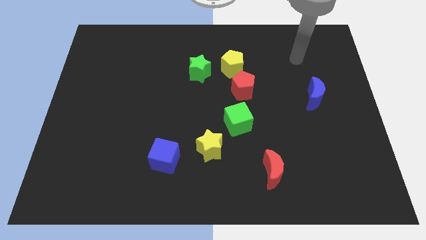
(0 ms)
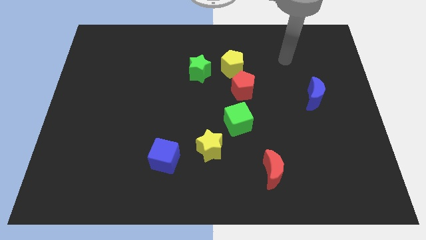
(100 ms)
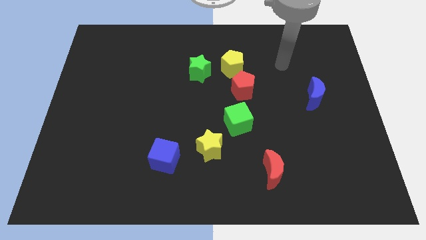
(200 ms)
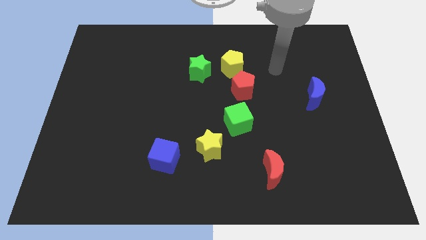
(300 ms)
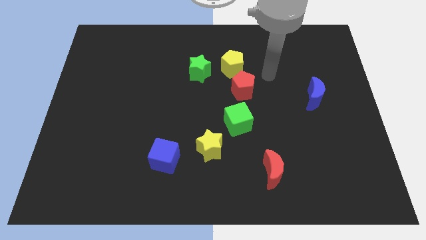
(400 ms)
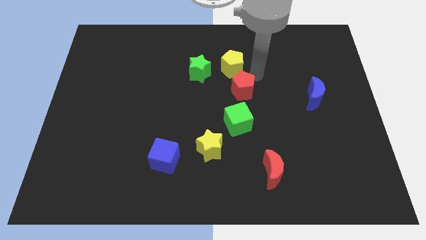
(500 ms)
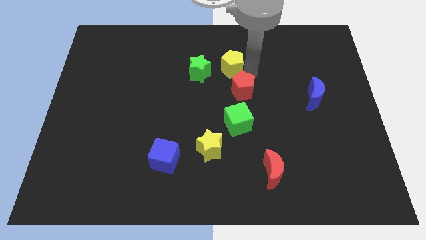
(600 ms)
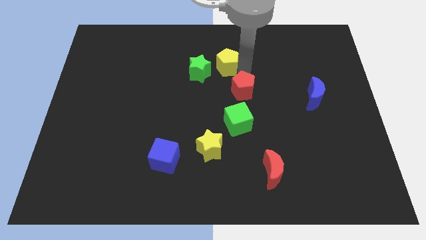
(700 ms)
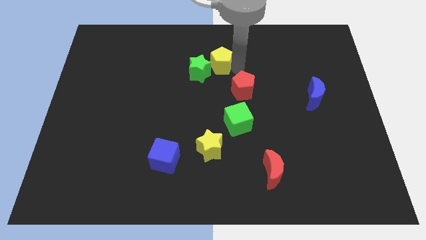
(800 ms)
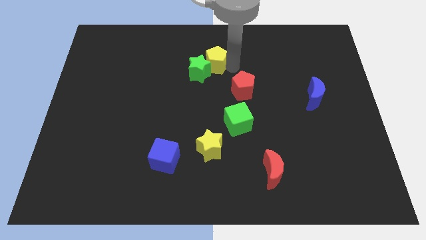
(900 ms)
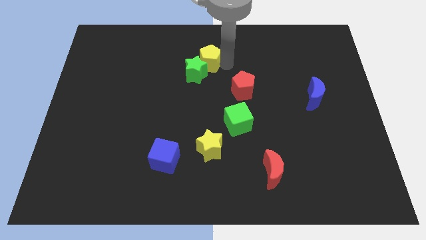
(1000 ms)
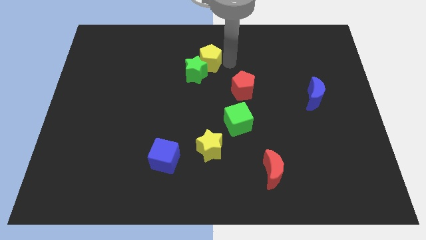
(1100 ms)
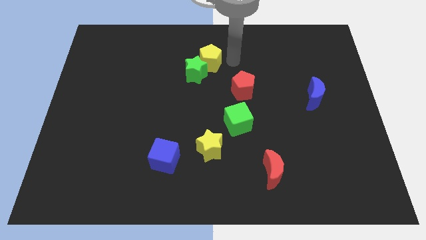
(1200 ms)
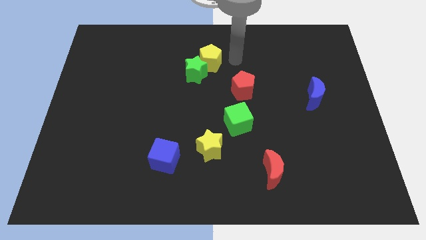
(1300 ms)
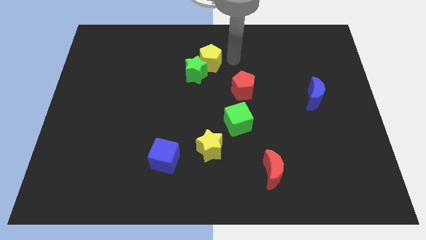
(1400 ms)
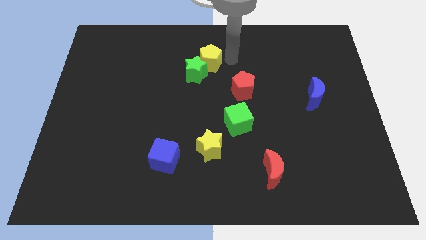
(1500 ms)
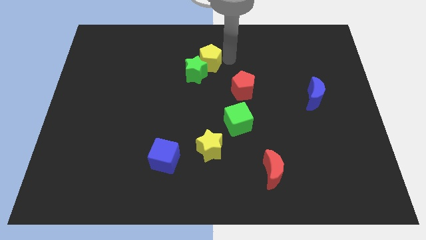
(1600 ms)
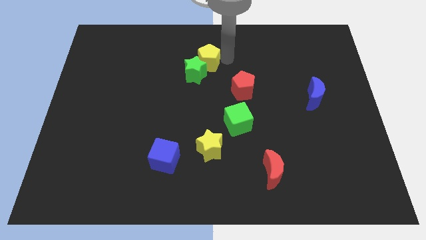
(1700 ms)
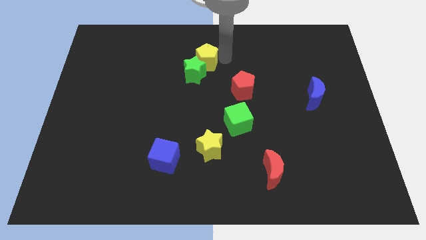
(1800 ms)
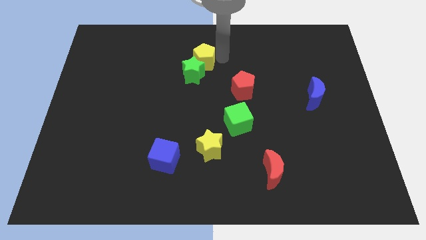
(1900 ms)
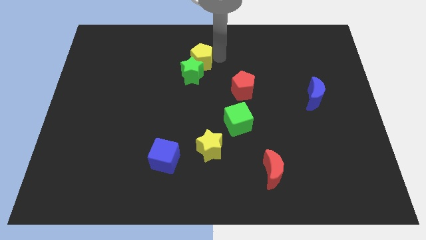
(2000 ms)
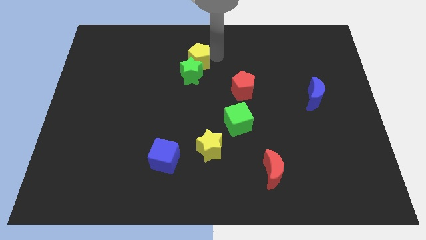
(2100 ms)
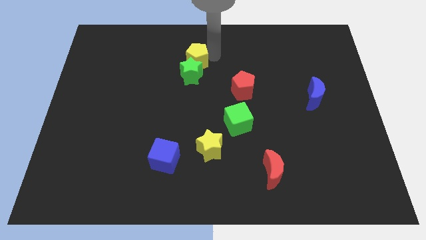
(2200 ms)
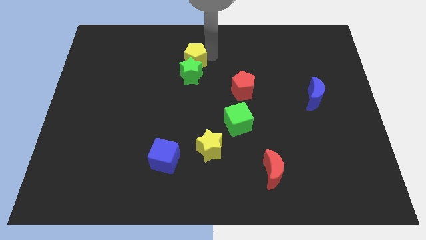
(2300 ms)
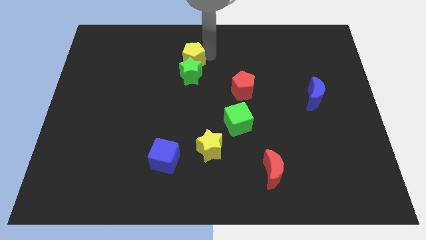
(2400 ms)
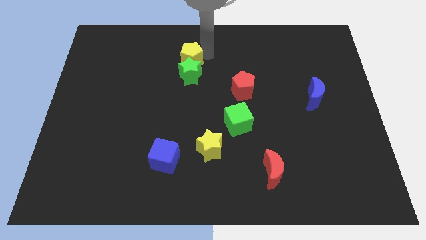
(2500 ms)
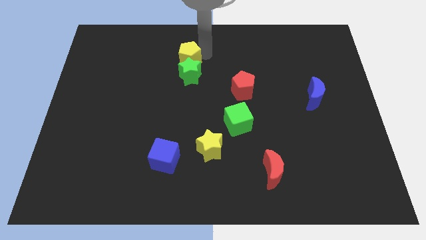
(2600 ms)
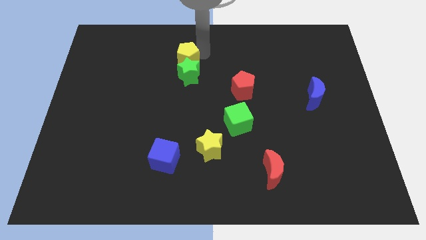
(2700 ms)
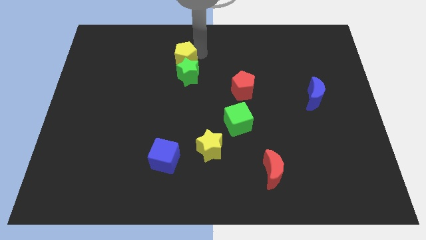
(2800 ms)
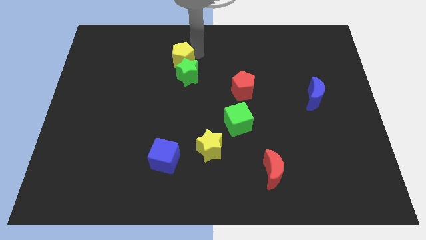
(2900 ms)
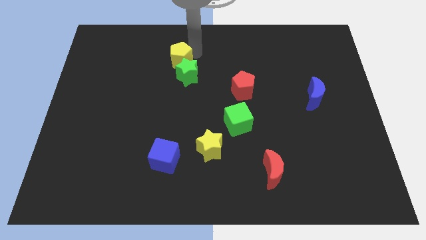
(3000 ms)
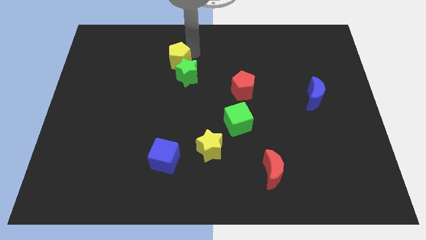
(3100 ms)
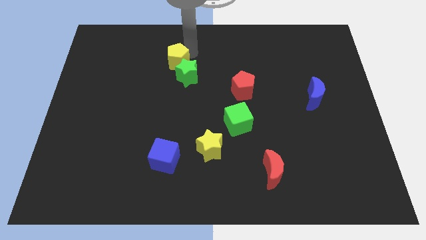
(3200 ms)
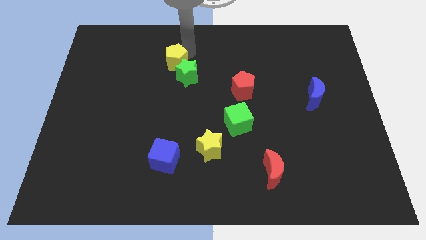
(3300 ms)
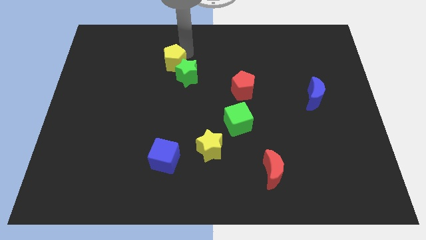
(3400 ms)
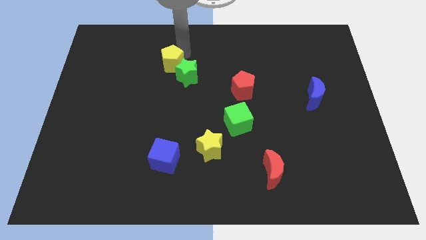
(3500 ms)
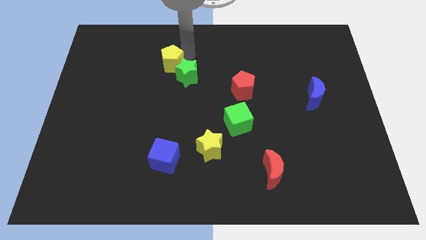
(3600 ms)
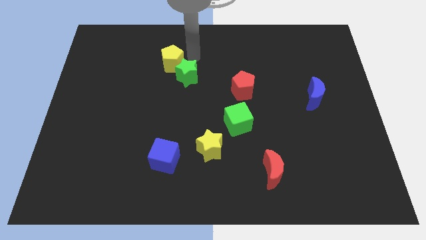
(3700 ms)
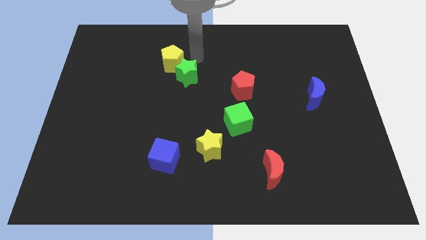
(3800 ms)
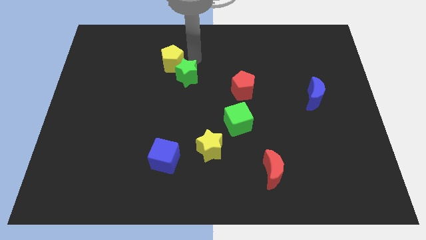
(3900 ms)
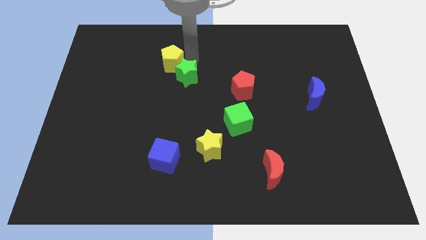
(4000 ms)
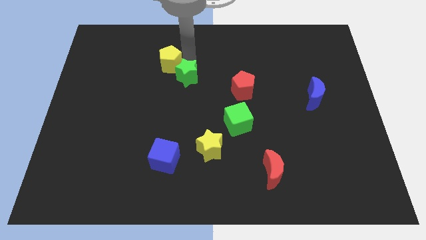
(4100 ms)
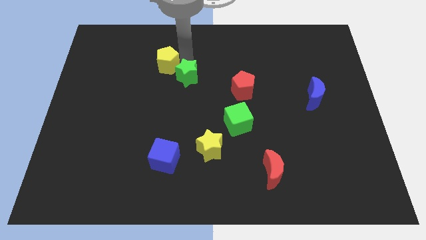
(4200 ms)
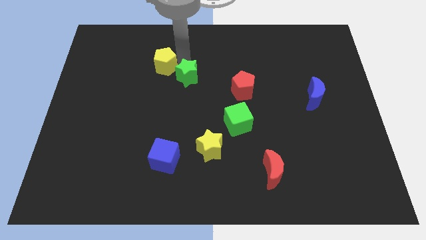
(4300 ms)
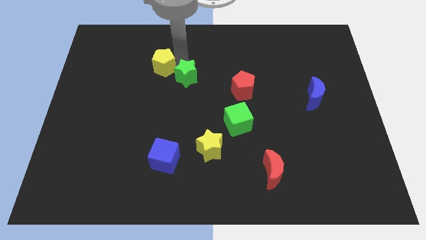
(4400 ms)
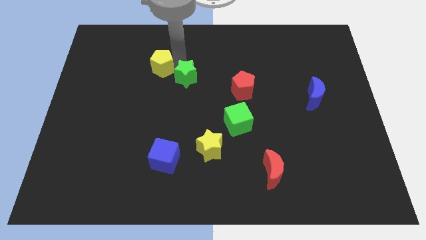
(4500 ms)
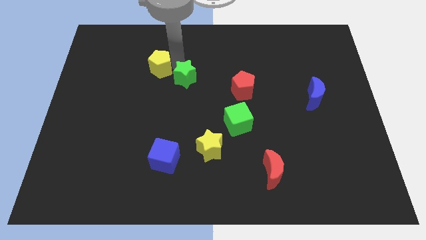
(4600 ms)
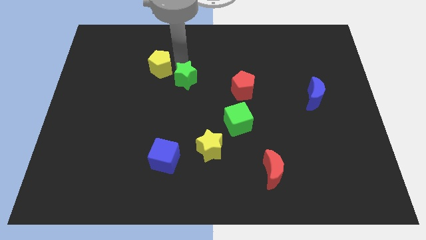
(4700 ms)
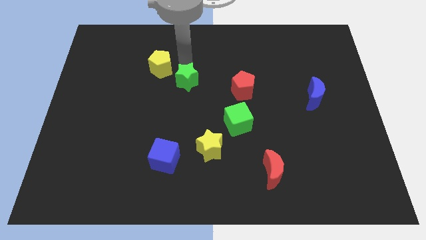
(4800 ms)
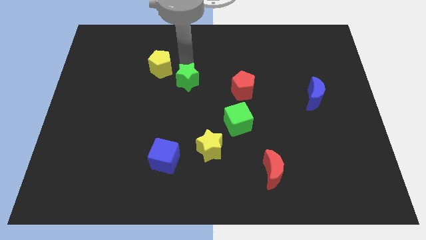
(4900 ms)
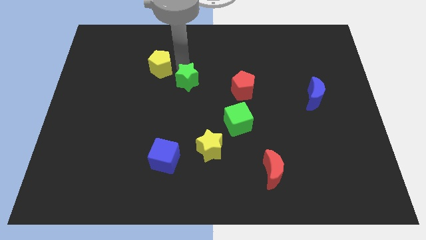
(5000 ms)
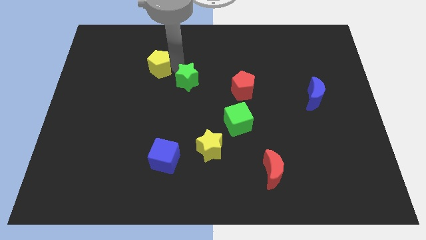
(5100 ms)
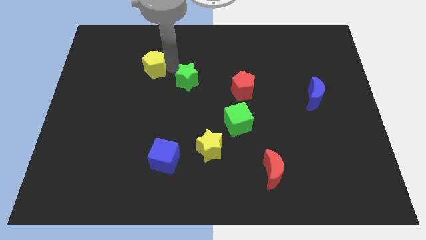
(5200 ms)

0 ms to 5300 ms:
slide the yellow pentagon to the left

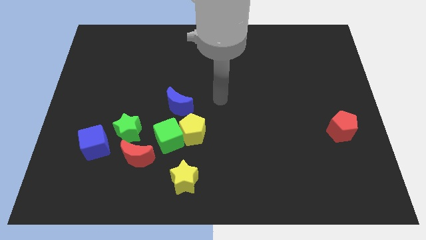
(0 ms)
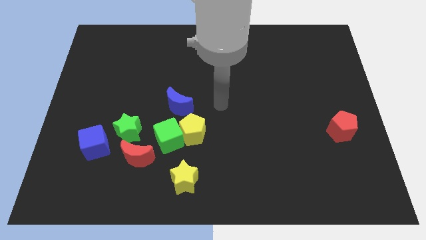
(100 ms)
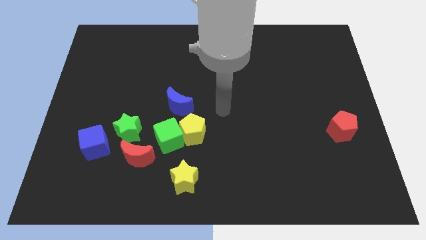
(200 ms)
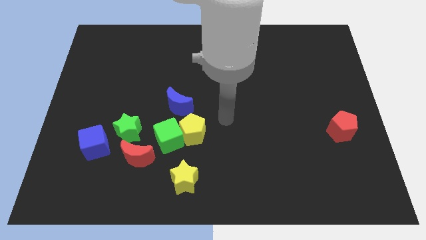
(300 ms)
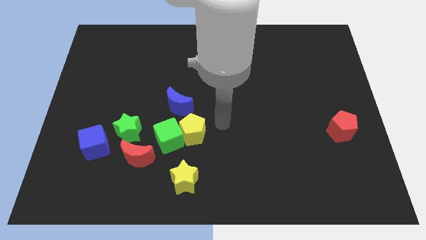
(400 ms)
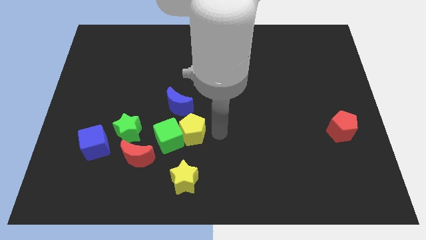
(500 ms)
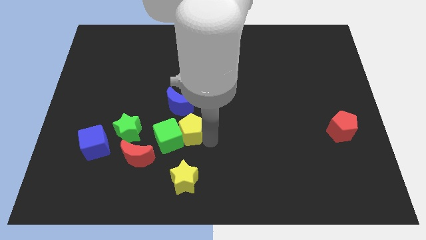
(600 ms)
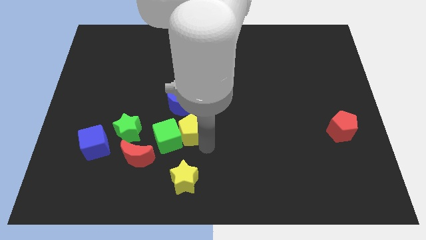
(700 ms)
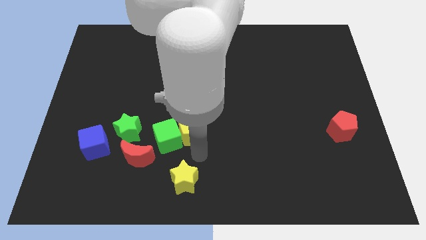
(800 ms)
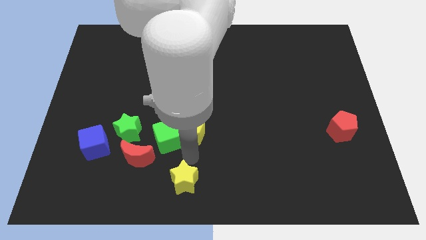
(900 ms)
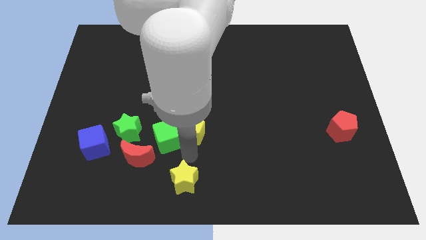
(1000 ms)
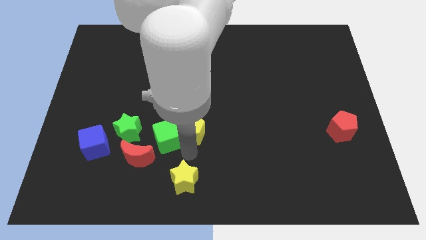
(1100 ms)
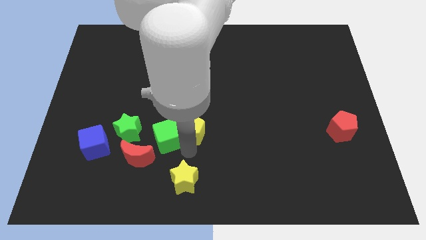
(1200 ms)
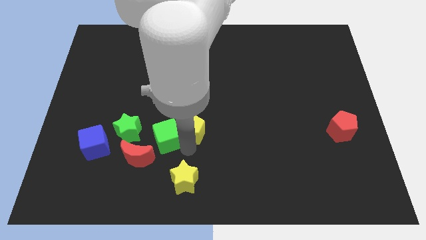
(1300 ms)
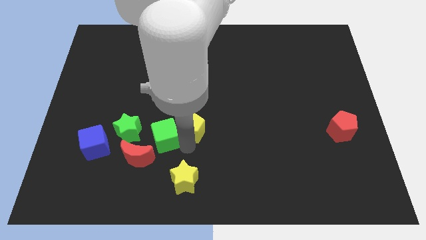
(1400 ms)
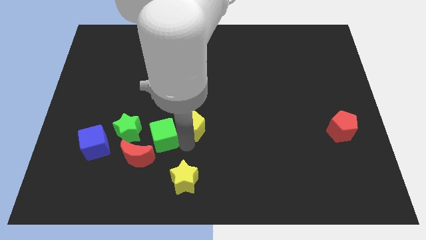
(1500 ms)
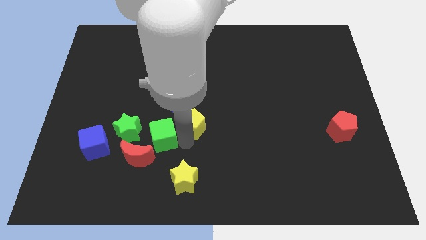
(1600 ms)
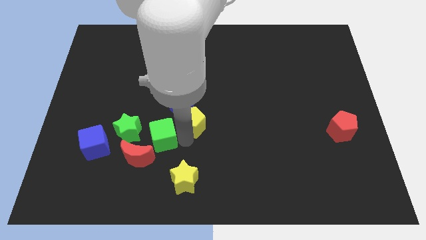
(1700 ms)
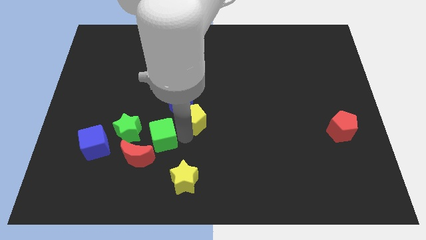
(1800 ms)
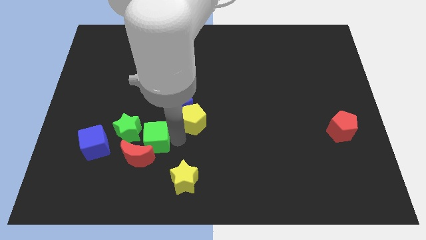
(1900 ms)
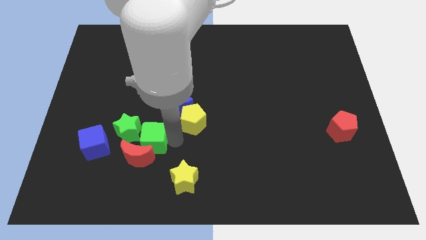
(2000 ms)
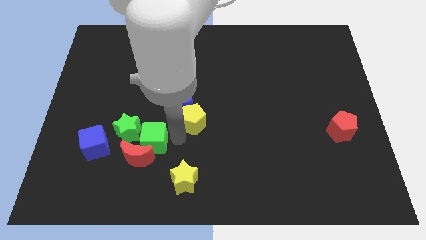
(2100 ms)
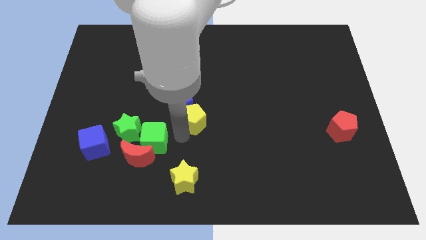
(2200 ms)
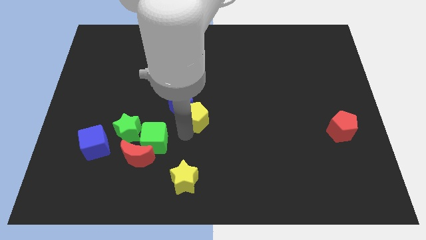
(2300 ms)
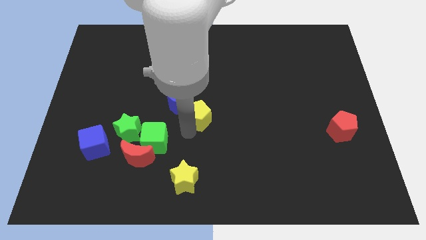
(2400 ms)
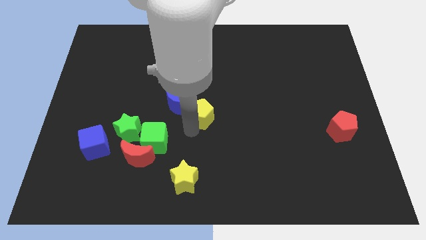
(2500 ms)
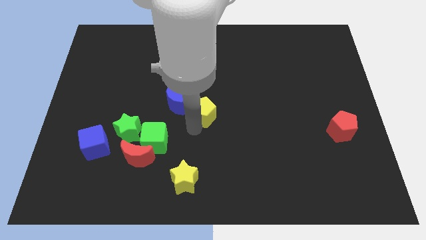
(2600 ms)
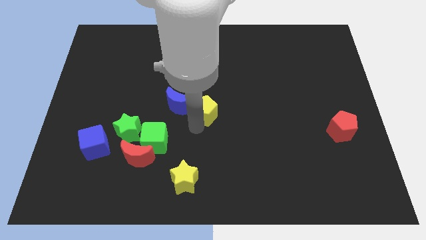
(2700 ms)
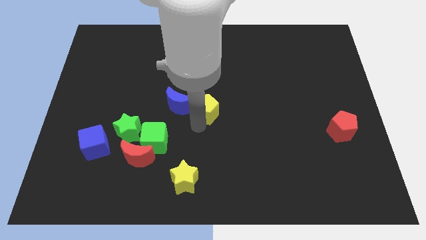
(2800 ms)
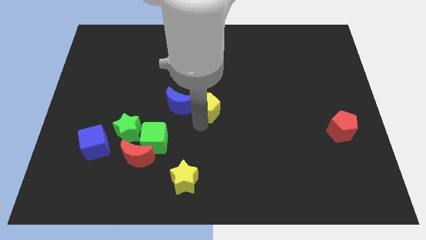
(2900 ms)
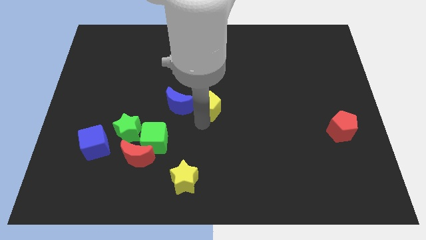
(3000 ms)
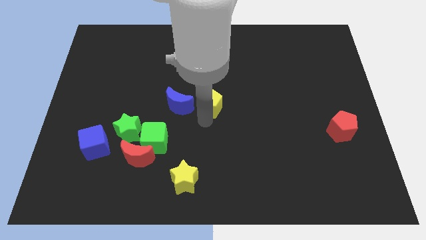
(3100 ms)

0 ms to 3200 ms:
move the yellow pentagon somewhat up
